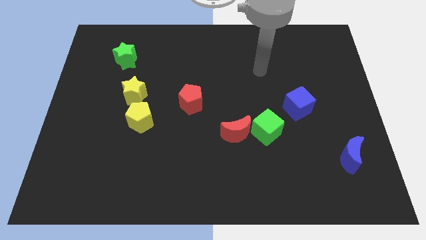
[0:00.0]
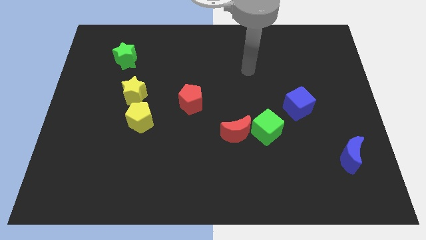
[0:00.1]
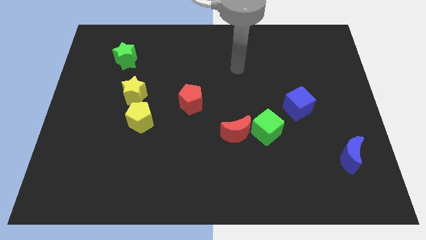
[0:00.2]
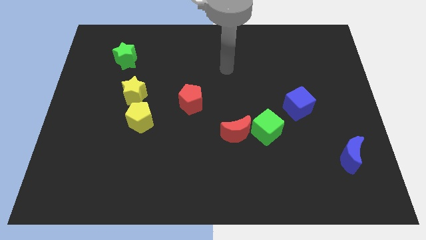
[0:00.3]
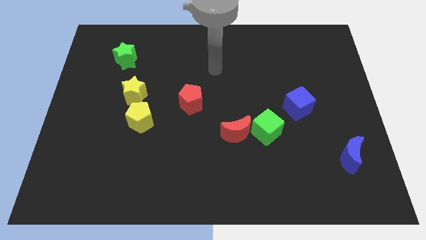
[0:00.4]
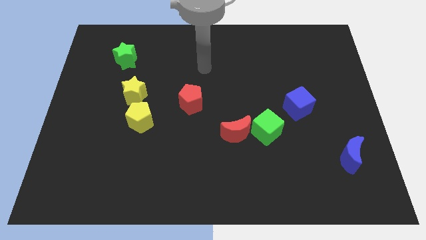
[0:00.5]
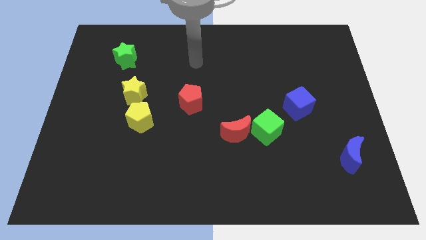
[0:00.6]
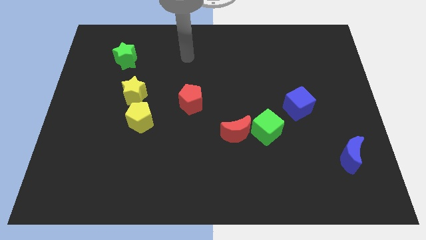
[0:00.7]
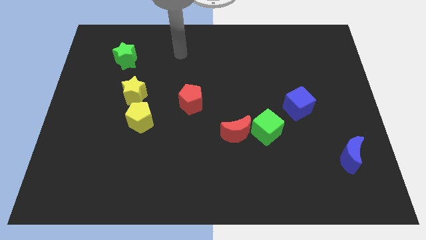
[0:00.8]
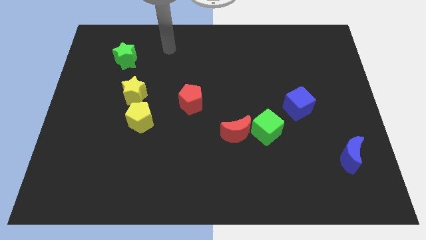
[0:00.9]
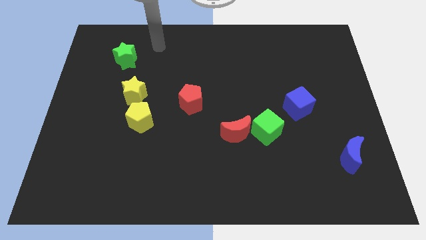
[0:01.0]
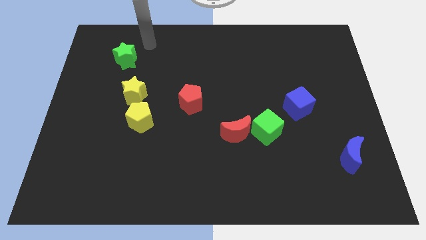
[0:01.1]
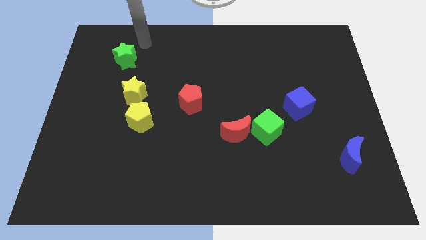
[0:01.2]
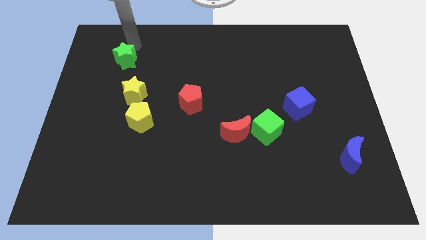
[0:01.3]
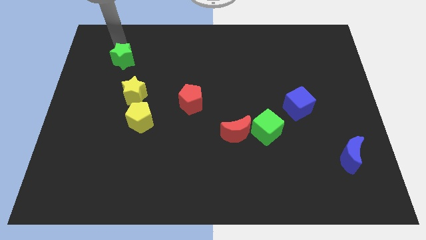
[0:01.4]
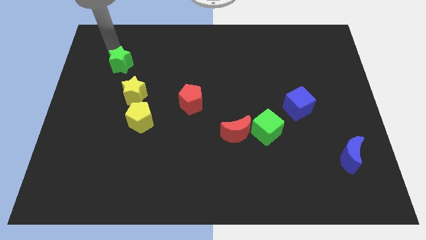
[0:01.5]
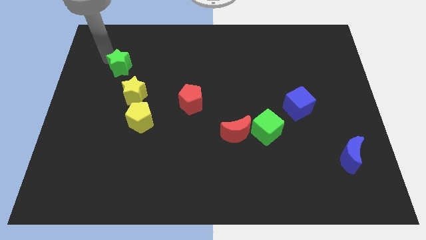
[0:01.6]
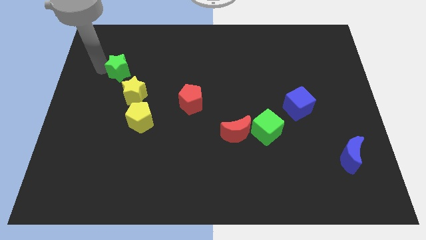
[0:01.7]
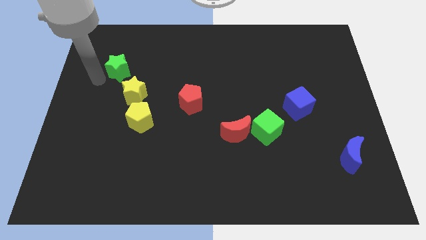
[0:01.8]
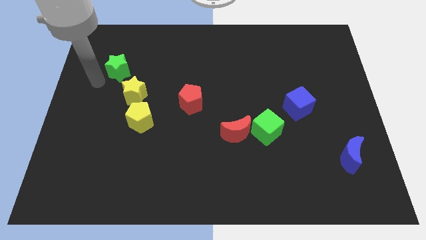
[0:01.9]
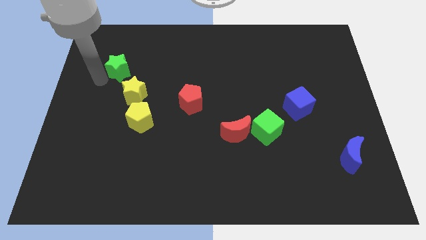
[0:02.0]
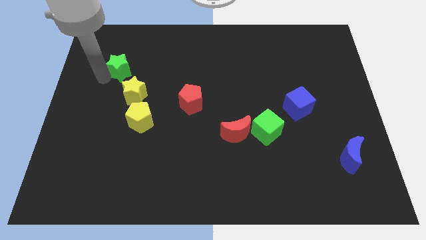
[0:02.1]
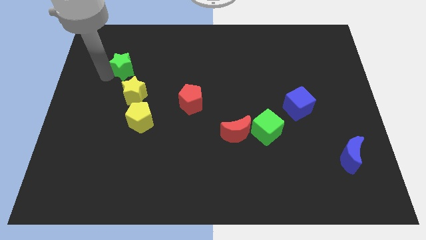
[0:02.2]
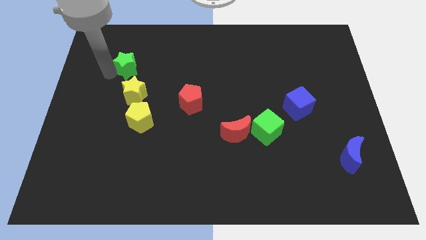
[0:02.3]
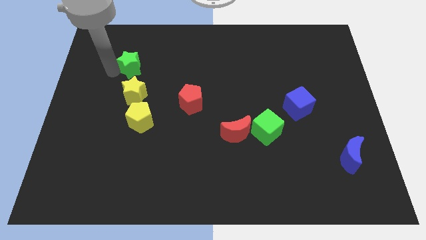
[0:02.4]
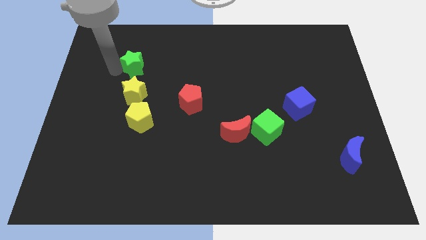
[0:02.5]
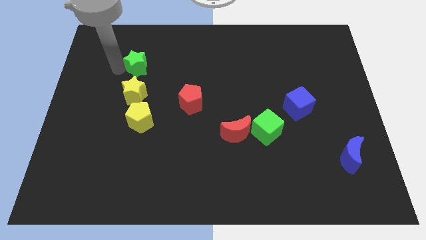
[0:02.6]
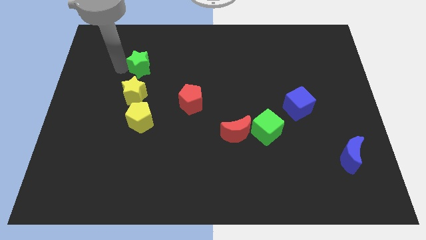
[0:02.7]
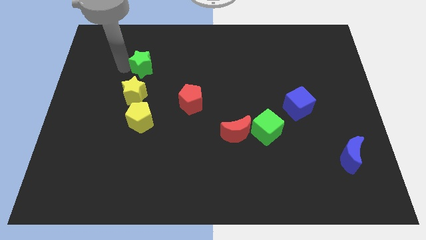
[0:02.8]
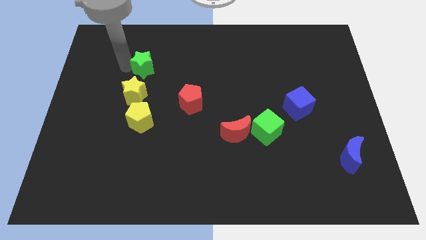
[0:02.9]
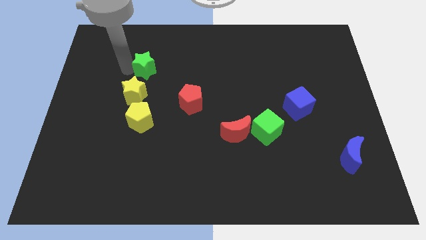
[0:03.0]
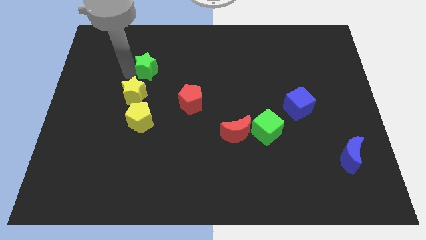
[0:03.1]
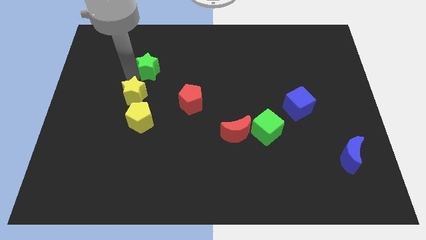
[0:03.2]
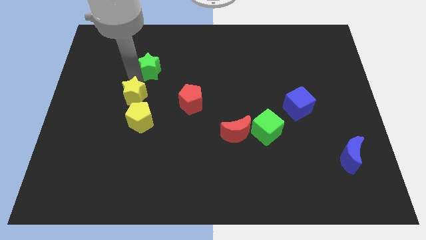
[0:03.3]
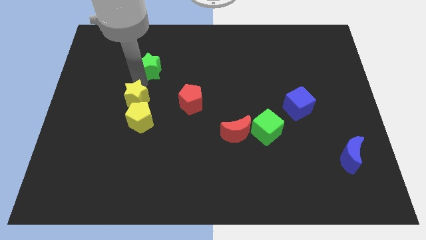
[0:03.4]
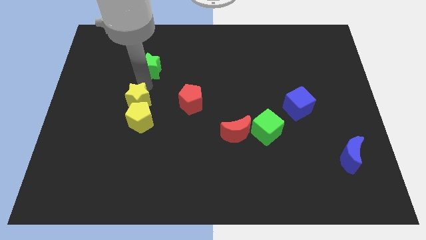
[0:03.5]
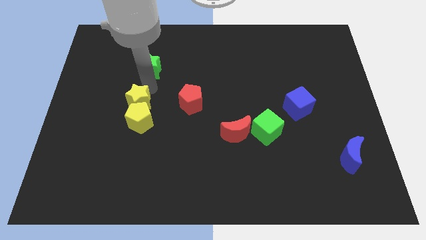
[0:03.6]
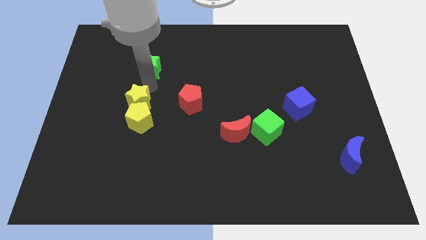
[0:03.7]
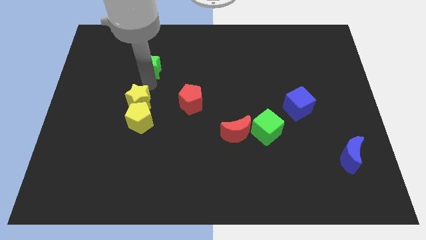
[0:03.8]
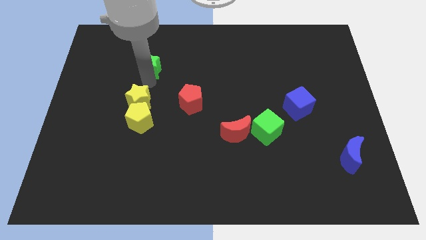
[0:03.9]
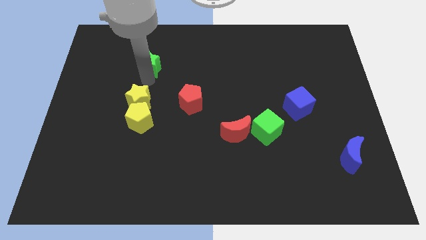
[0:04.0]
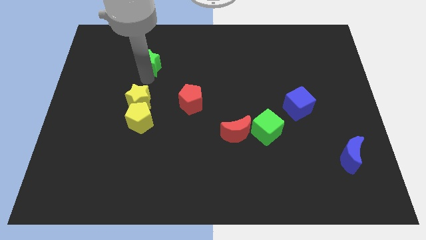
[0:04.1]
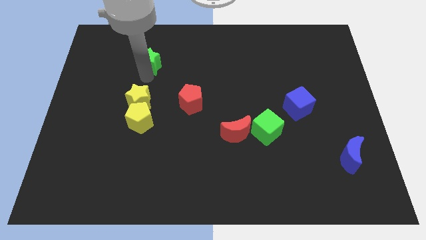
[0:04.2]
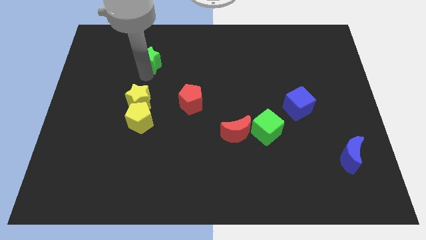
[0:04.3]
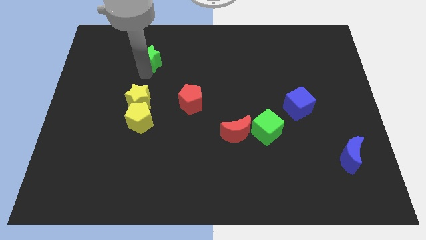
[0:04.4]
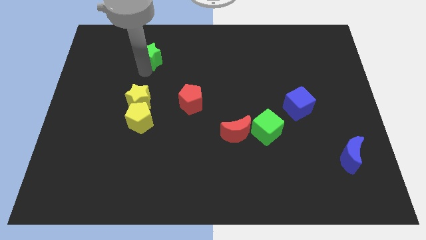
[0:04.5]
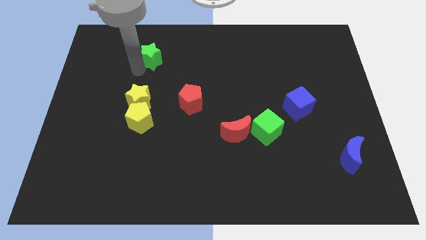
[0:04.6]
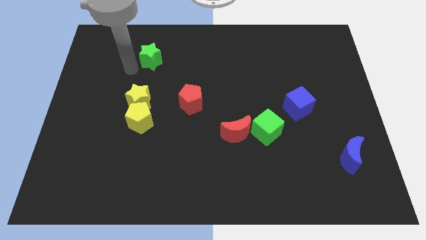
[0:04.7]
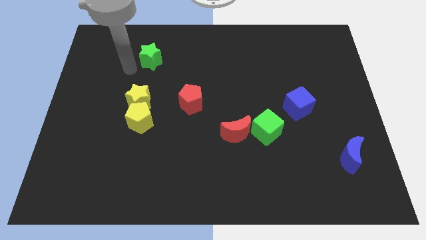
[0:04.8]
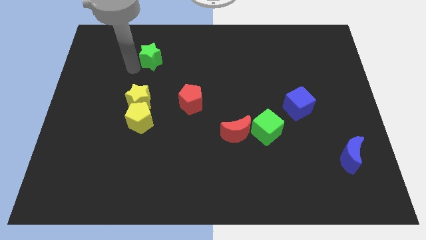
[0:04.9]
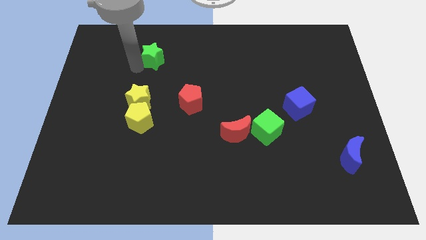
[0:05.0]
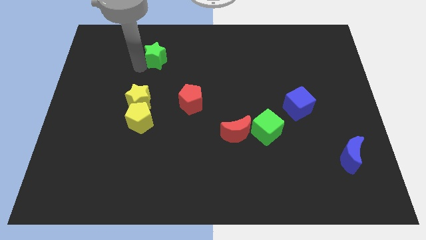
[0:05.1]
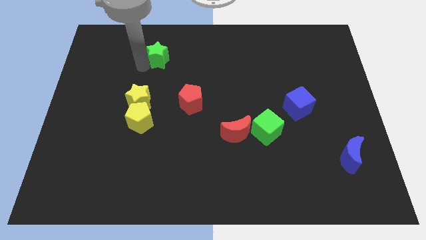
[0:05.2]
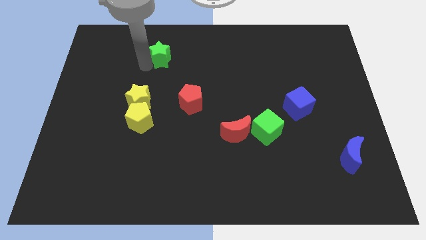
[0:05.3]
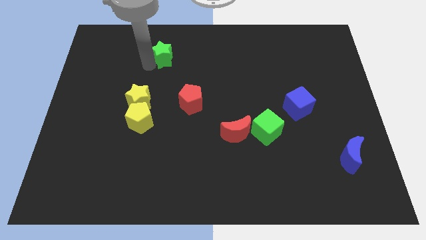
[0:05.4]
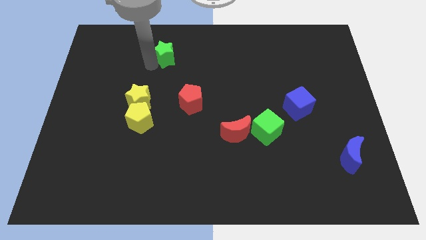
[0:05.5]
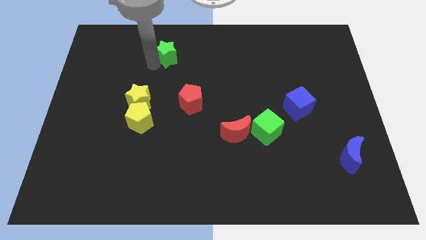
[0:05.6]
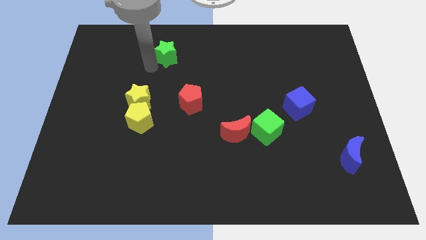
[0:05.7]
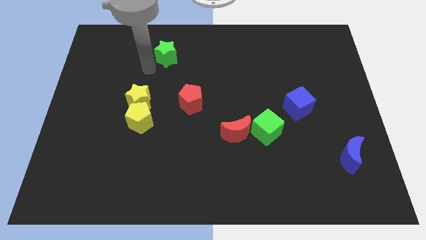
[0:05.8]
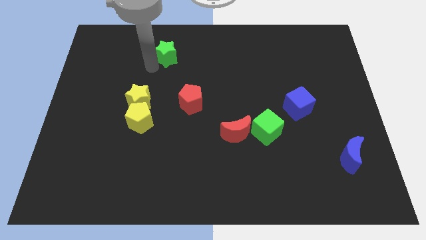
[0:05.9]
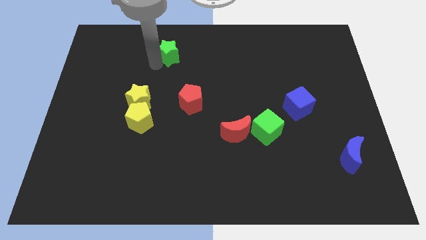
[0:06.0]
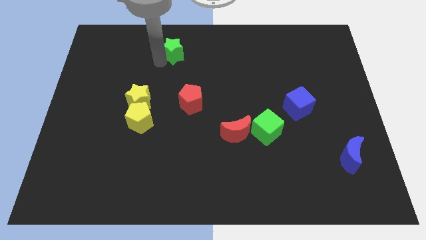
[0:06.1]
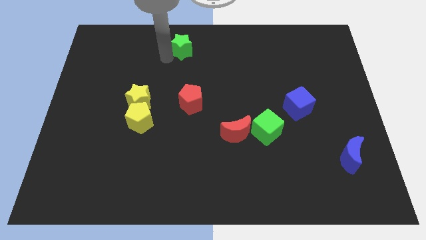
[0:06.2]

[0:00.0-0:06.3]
move the green star to the towards your base

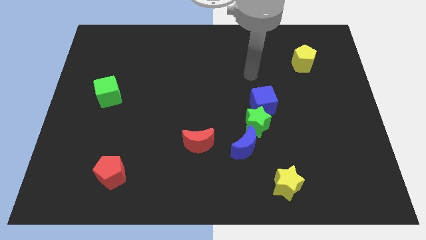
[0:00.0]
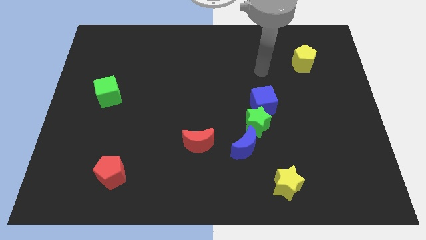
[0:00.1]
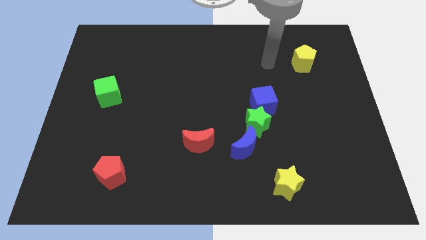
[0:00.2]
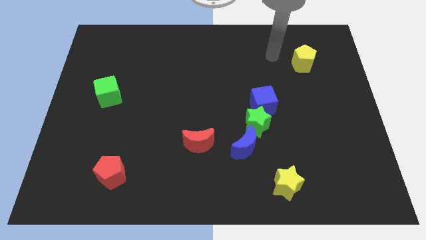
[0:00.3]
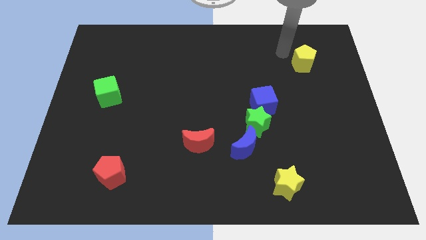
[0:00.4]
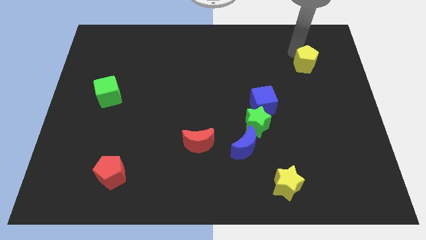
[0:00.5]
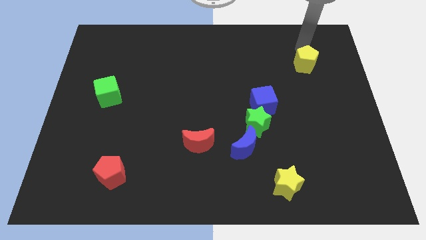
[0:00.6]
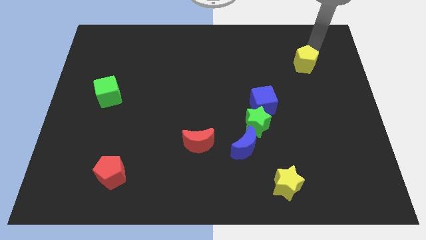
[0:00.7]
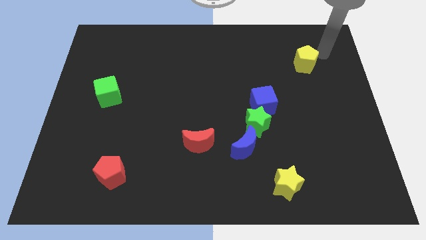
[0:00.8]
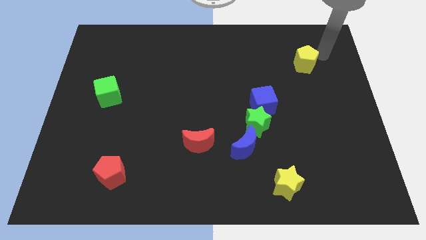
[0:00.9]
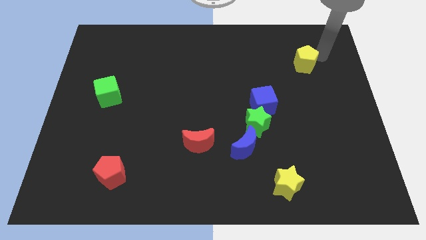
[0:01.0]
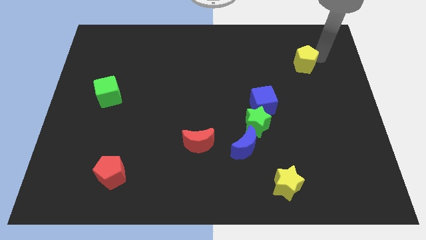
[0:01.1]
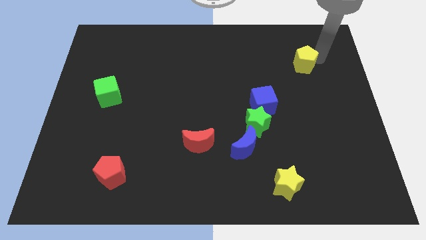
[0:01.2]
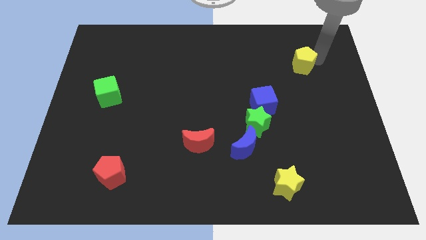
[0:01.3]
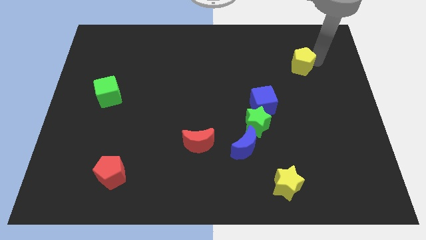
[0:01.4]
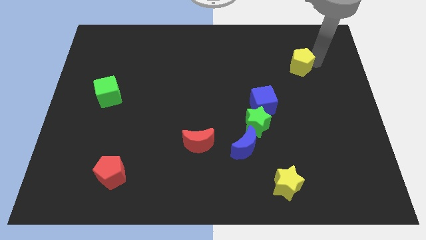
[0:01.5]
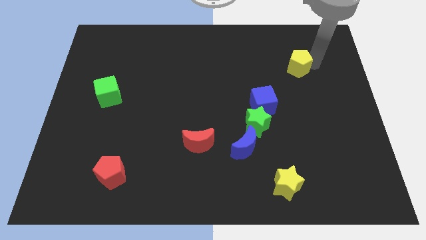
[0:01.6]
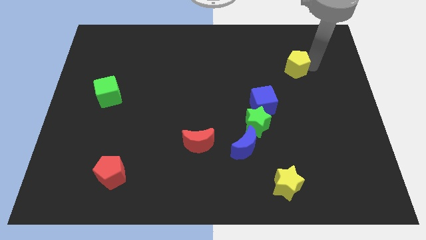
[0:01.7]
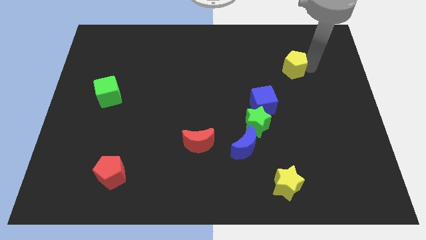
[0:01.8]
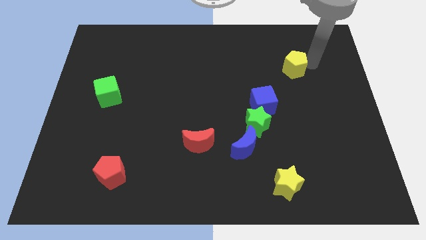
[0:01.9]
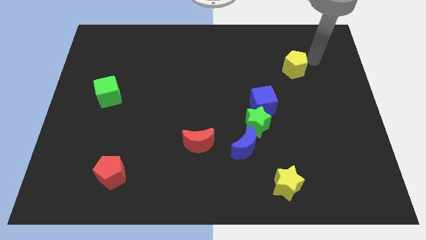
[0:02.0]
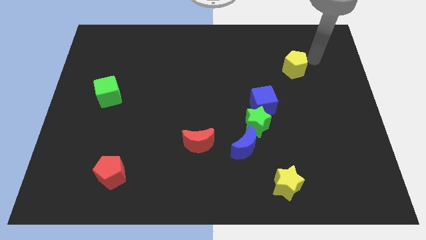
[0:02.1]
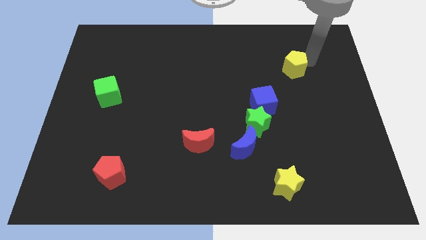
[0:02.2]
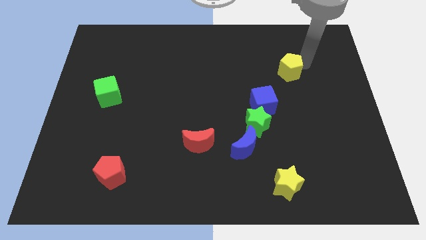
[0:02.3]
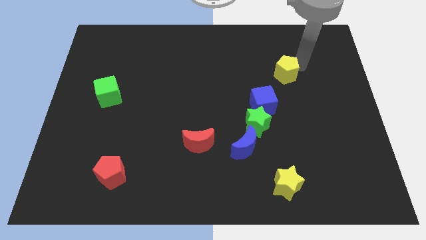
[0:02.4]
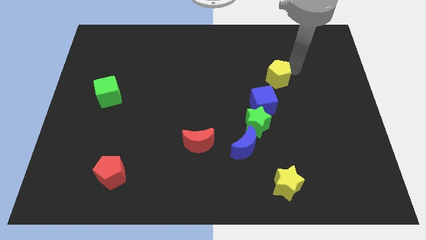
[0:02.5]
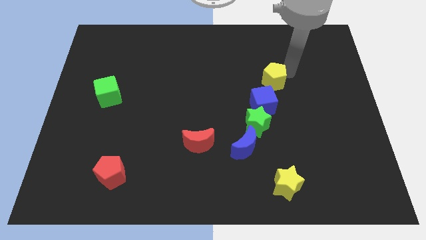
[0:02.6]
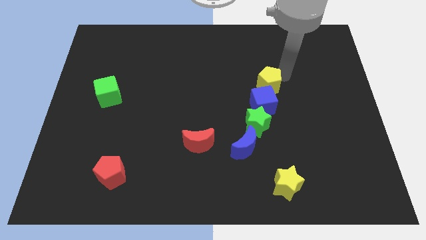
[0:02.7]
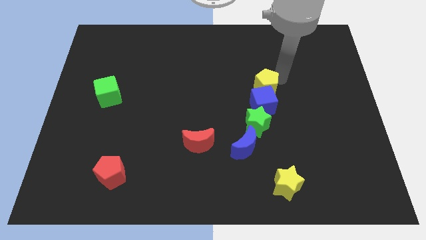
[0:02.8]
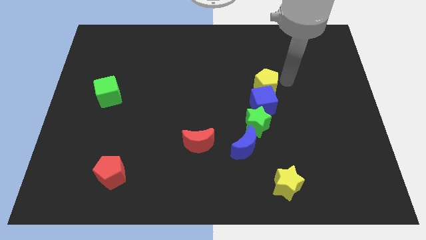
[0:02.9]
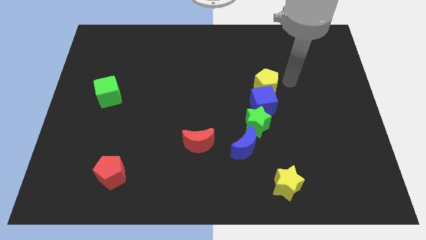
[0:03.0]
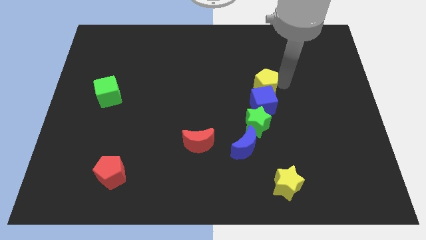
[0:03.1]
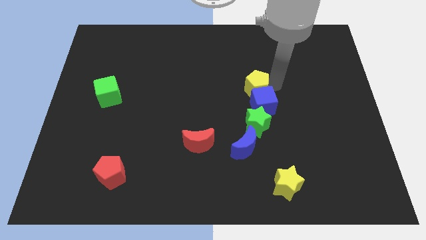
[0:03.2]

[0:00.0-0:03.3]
slide the yellow pentagon to the center
